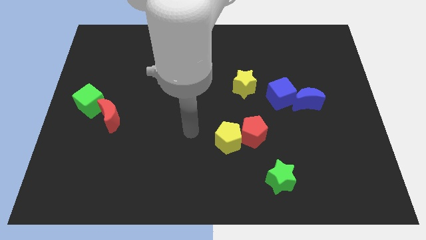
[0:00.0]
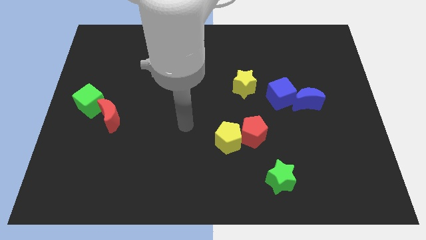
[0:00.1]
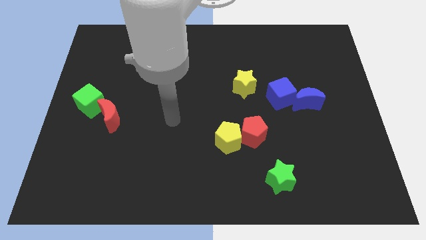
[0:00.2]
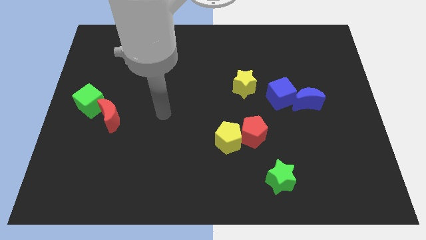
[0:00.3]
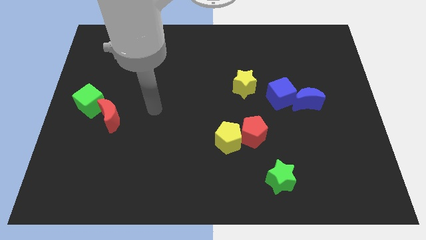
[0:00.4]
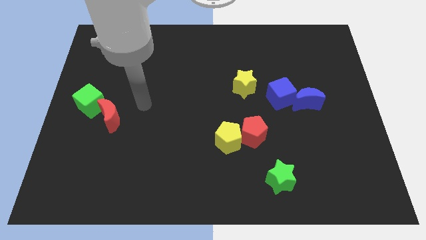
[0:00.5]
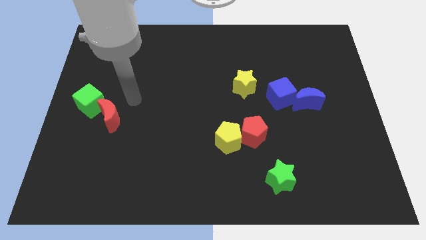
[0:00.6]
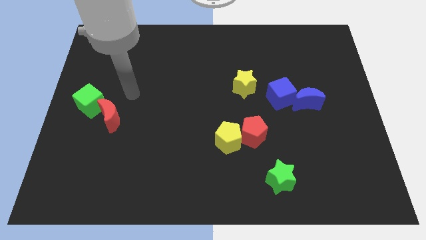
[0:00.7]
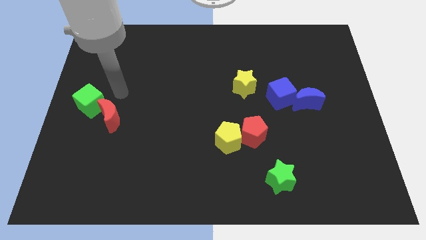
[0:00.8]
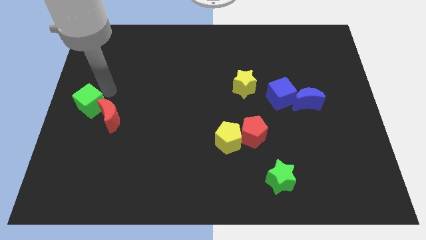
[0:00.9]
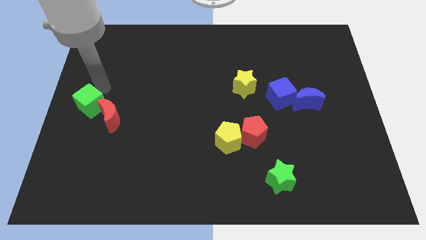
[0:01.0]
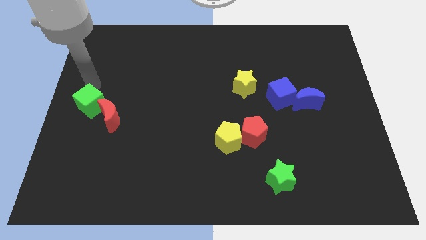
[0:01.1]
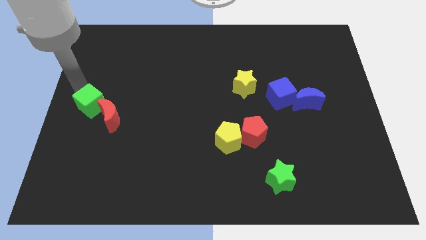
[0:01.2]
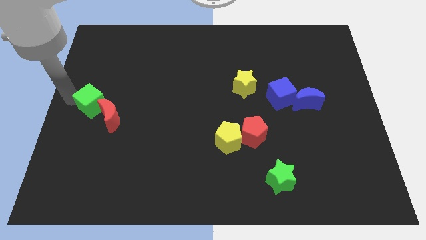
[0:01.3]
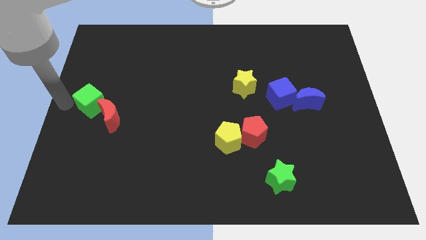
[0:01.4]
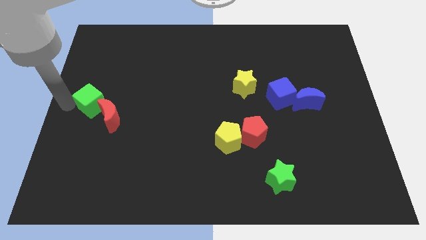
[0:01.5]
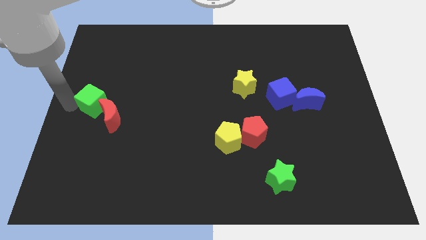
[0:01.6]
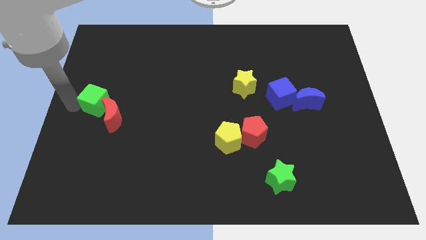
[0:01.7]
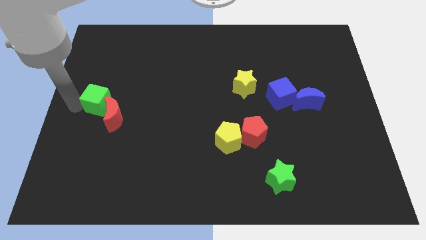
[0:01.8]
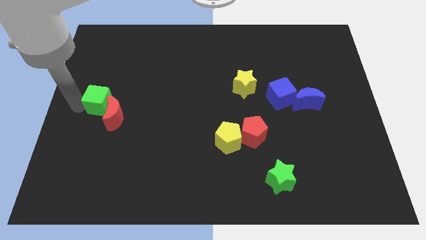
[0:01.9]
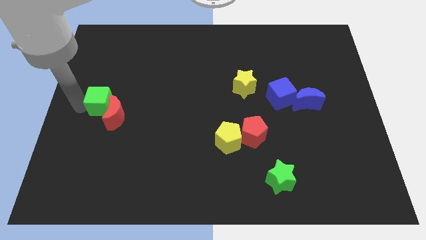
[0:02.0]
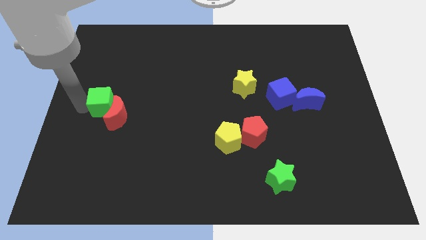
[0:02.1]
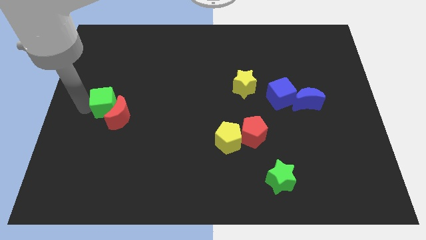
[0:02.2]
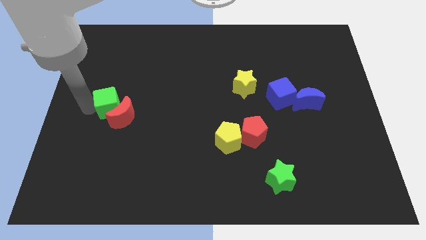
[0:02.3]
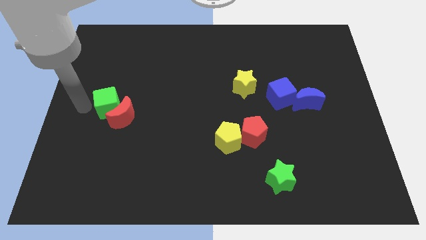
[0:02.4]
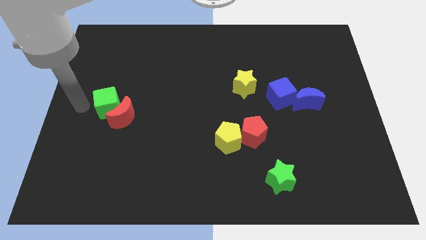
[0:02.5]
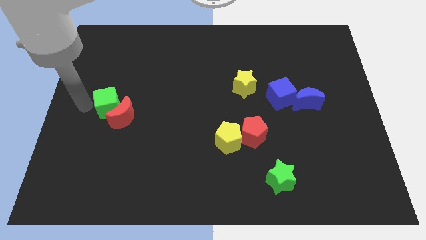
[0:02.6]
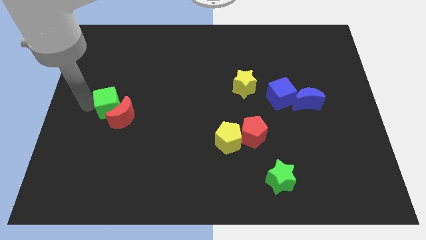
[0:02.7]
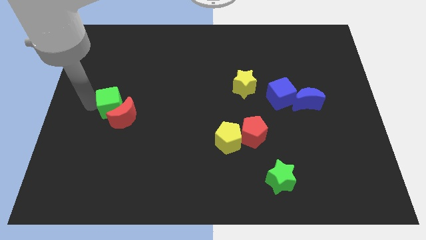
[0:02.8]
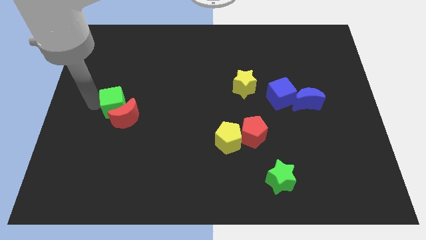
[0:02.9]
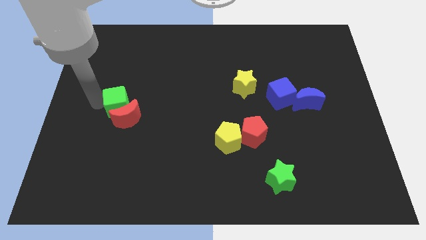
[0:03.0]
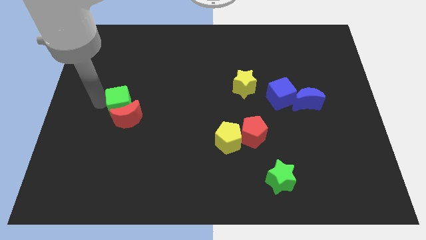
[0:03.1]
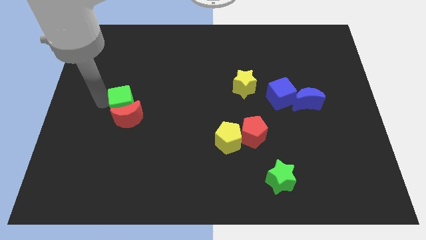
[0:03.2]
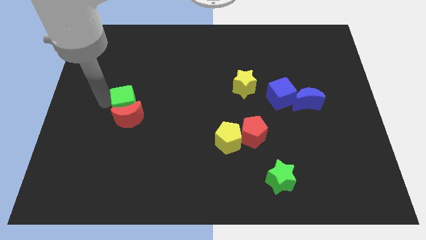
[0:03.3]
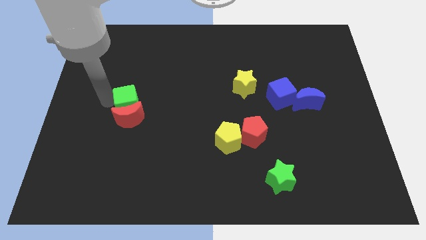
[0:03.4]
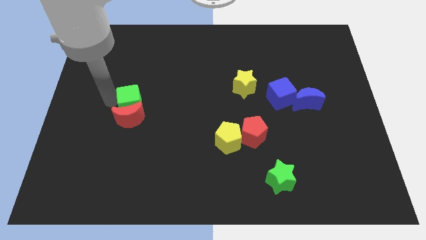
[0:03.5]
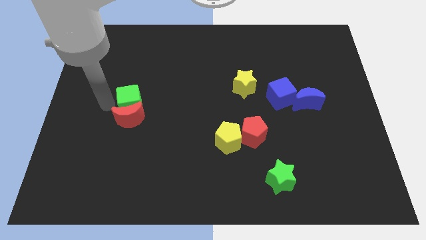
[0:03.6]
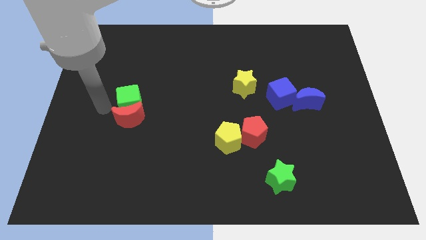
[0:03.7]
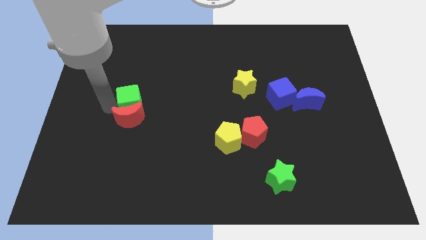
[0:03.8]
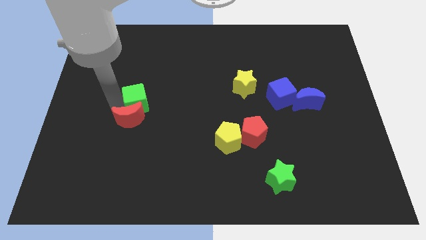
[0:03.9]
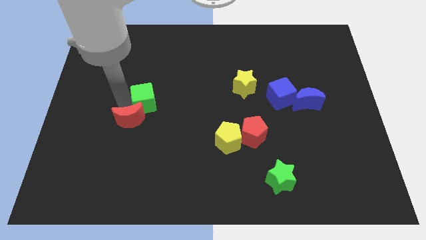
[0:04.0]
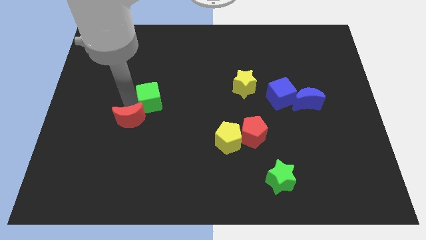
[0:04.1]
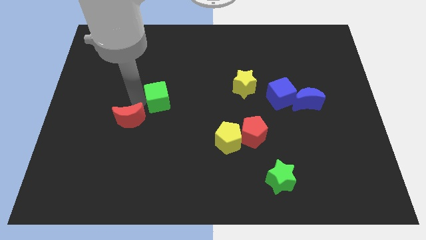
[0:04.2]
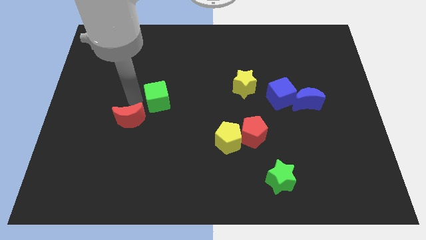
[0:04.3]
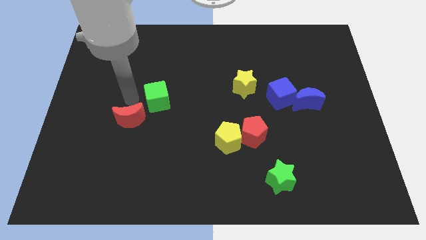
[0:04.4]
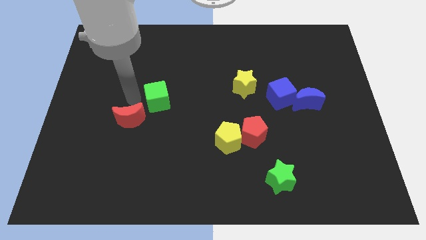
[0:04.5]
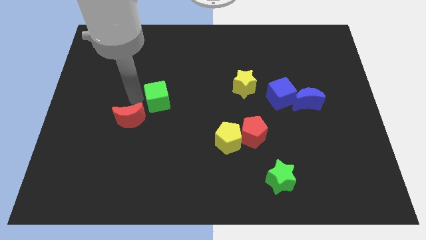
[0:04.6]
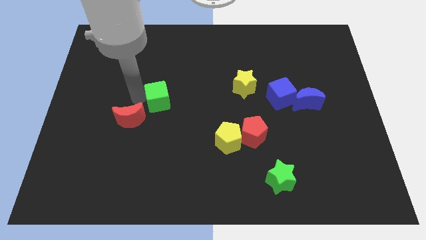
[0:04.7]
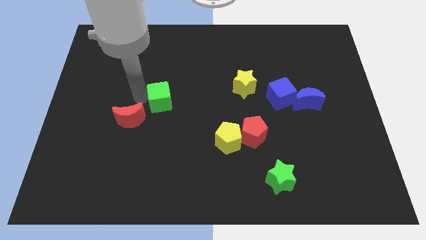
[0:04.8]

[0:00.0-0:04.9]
slide the green cube to the center

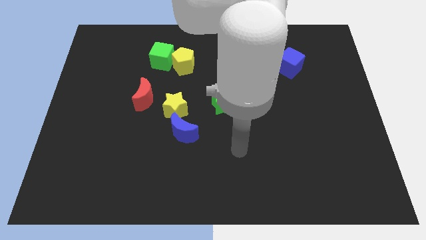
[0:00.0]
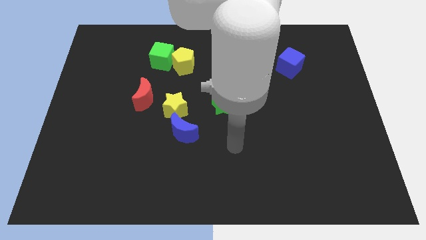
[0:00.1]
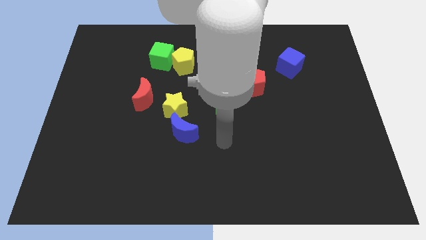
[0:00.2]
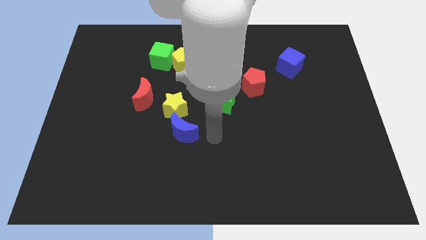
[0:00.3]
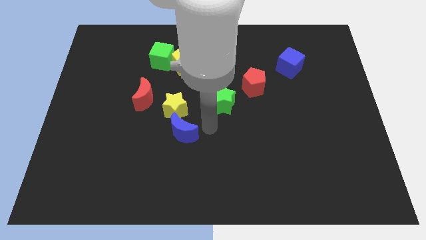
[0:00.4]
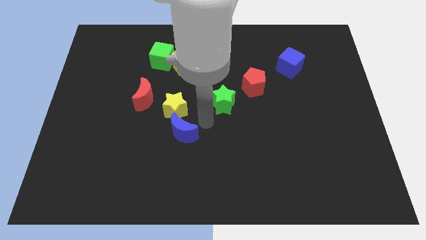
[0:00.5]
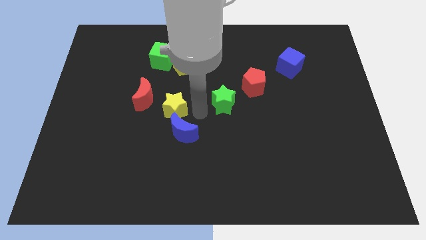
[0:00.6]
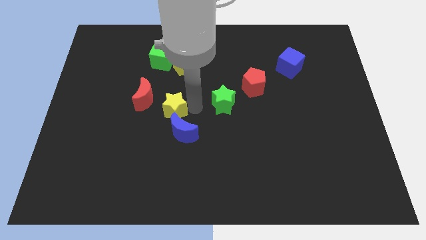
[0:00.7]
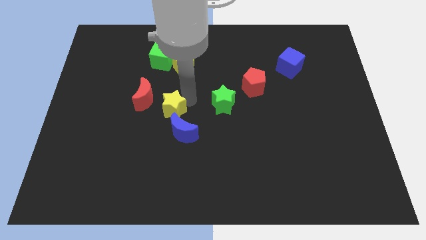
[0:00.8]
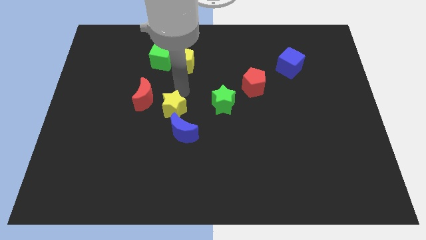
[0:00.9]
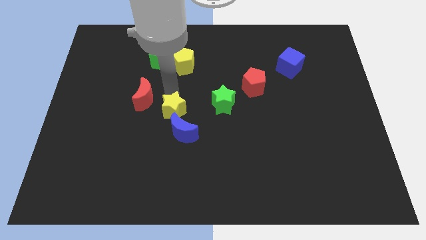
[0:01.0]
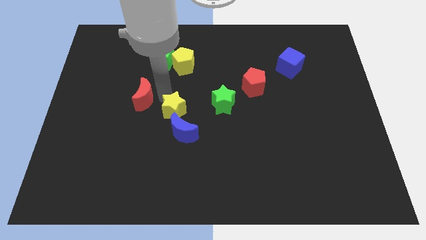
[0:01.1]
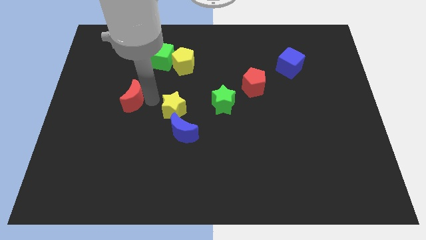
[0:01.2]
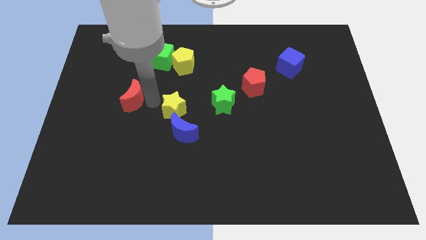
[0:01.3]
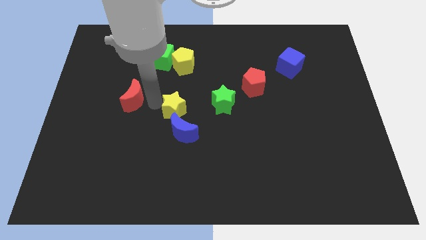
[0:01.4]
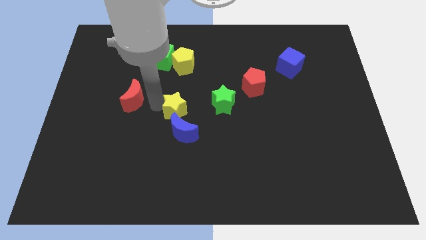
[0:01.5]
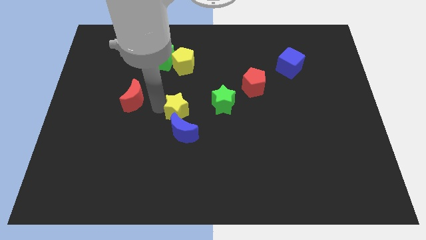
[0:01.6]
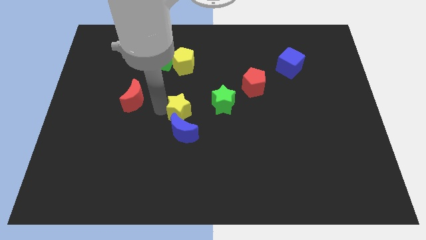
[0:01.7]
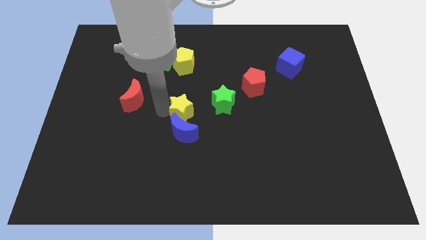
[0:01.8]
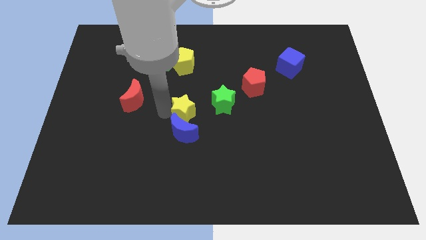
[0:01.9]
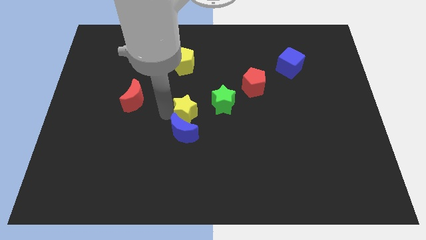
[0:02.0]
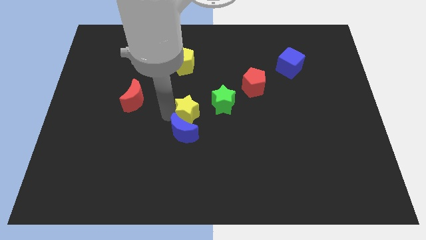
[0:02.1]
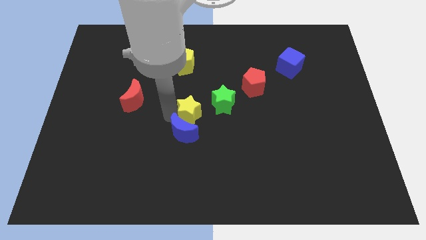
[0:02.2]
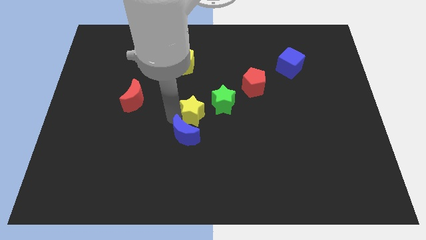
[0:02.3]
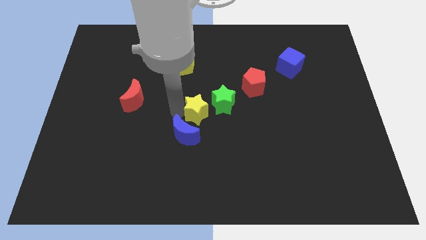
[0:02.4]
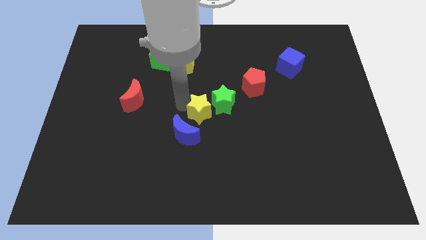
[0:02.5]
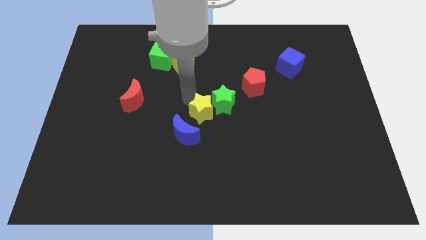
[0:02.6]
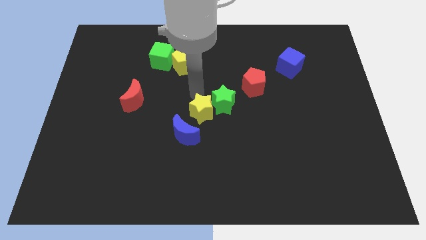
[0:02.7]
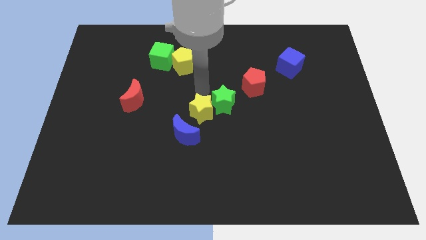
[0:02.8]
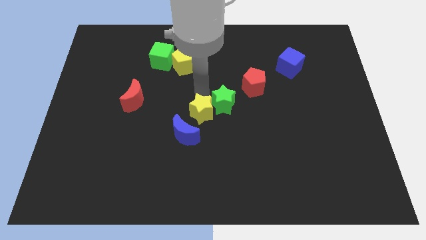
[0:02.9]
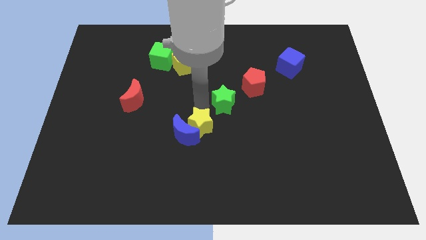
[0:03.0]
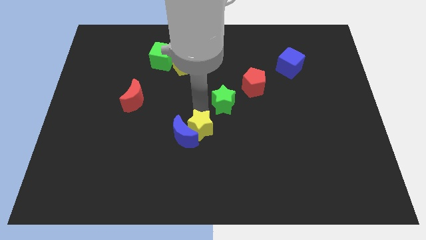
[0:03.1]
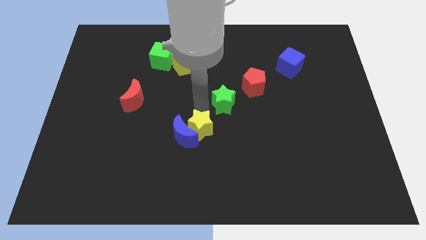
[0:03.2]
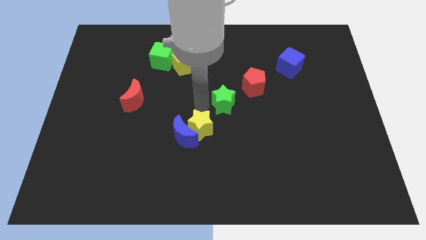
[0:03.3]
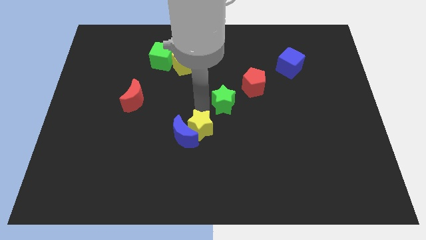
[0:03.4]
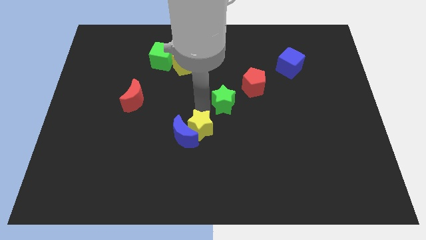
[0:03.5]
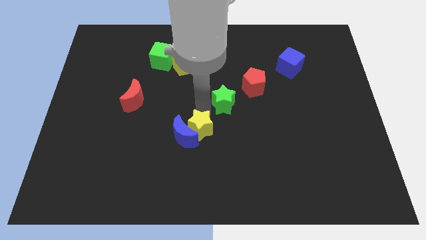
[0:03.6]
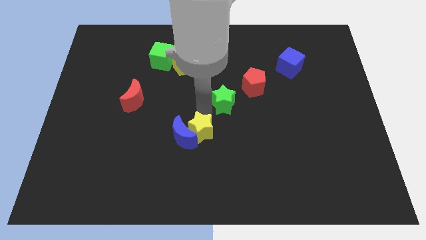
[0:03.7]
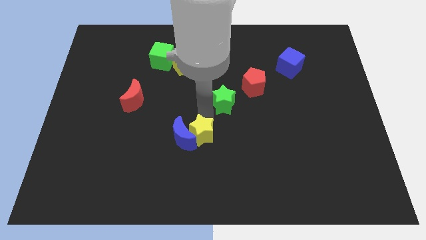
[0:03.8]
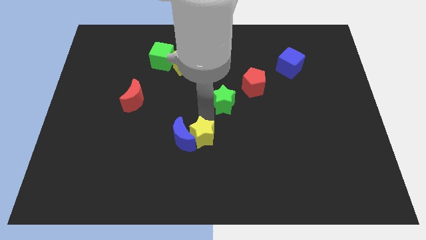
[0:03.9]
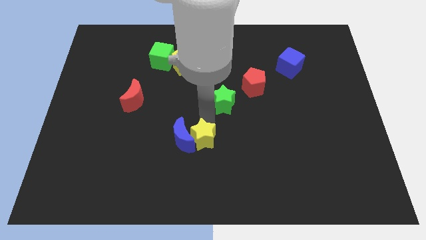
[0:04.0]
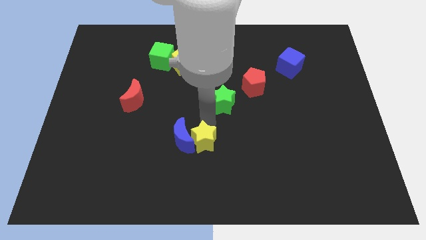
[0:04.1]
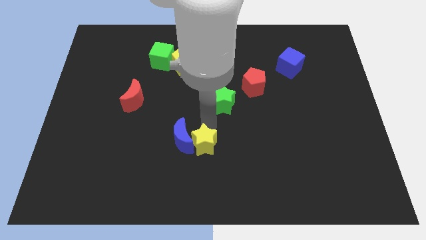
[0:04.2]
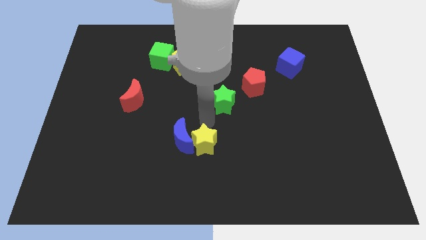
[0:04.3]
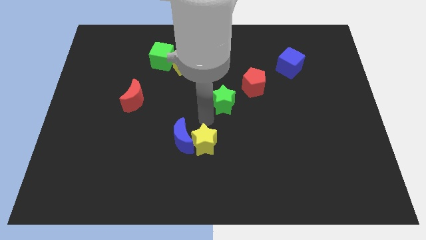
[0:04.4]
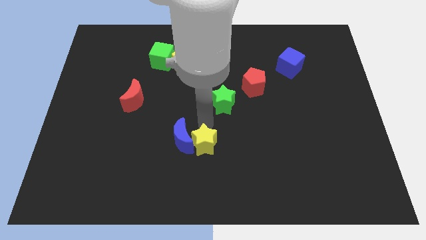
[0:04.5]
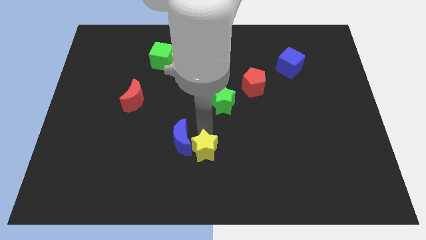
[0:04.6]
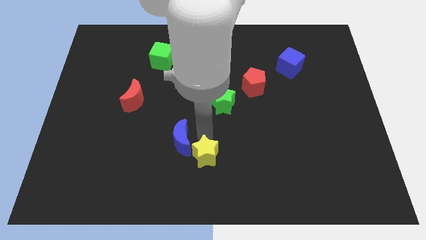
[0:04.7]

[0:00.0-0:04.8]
push the yellow star to the bottom
